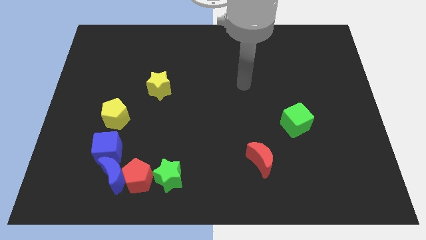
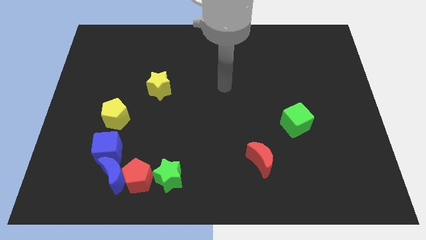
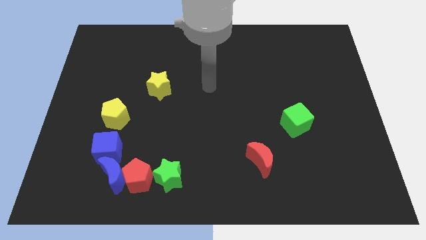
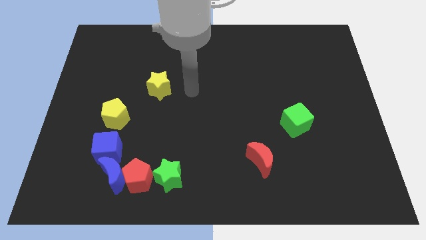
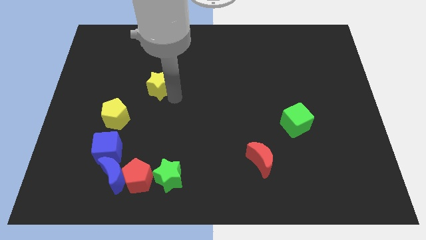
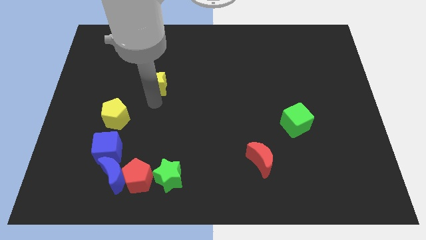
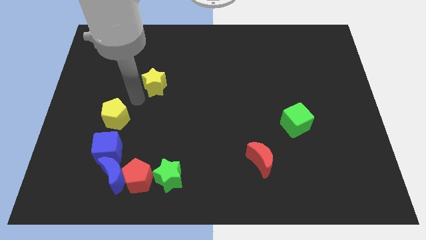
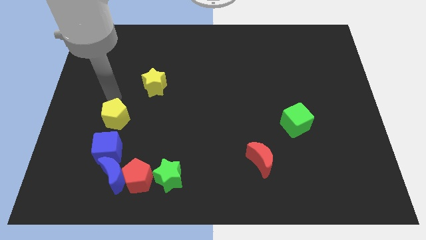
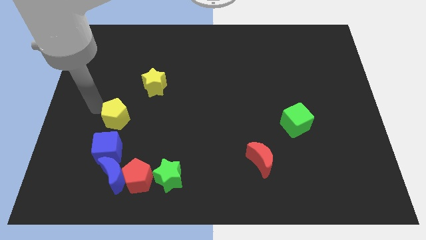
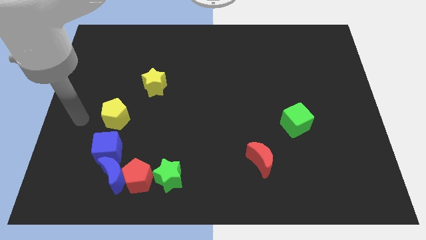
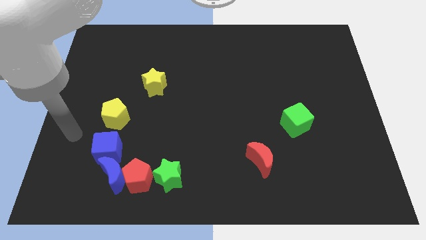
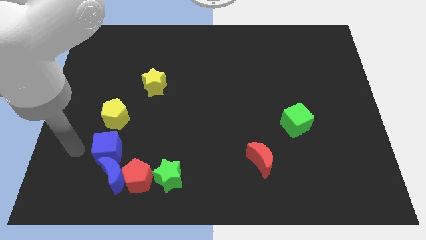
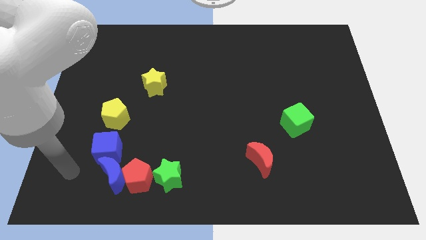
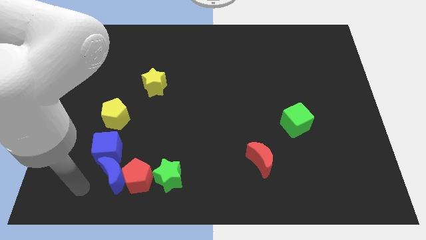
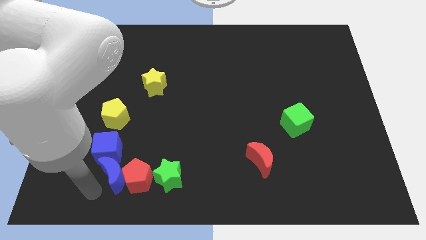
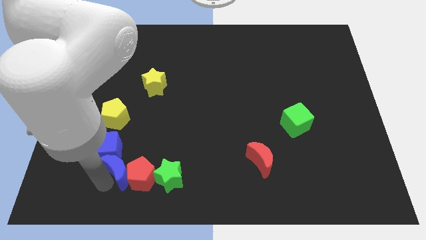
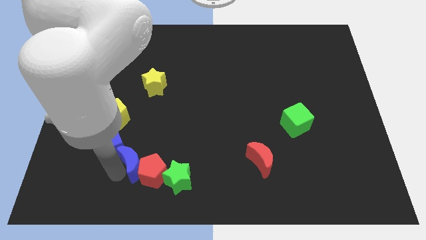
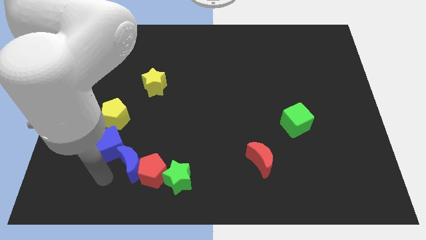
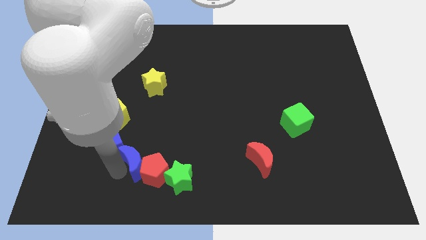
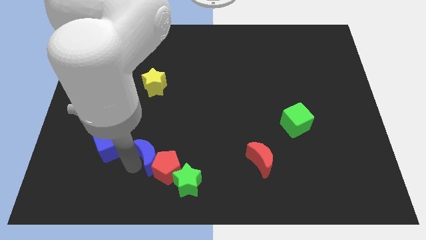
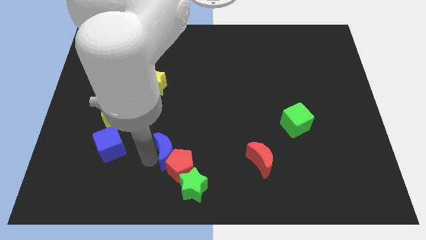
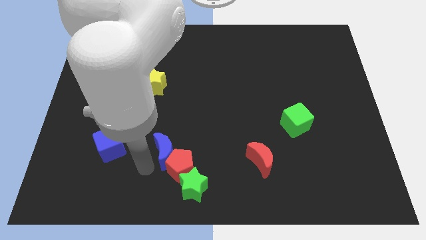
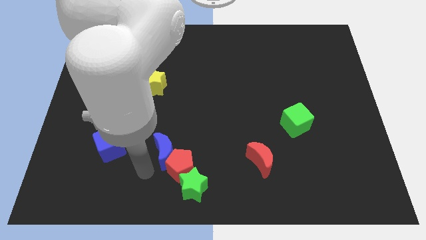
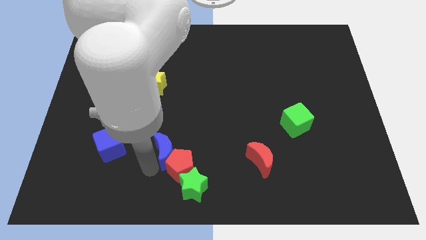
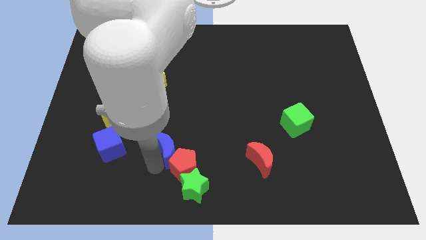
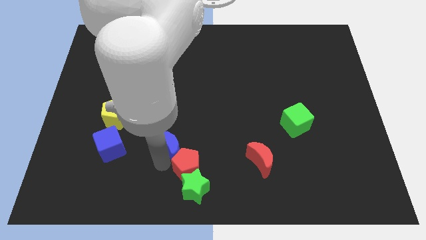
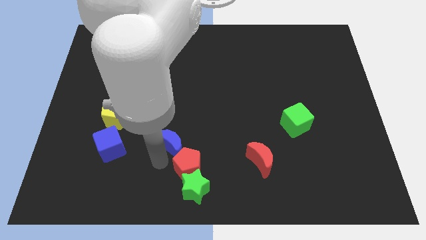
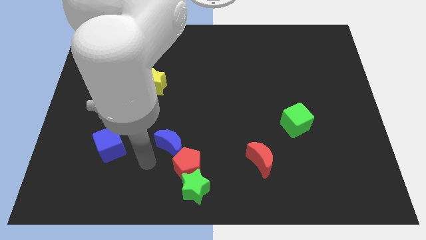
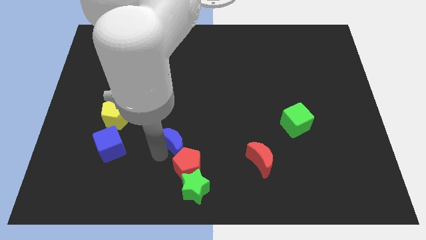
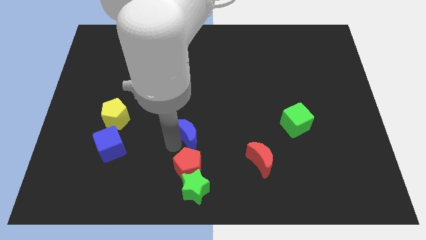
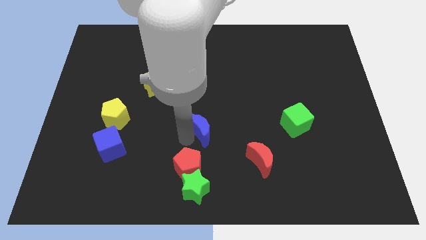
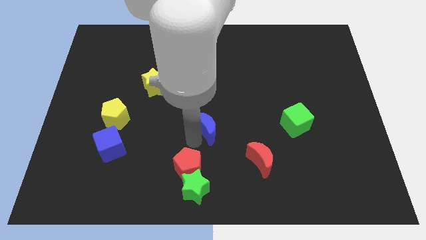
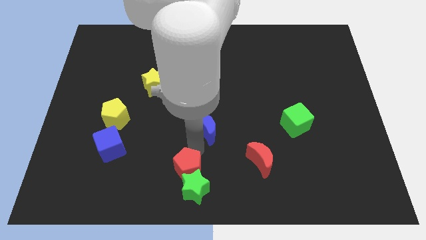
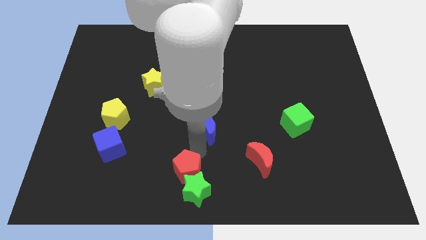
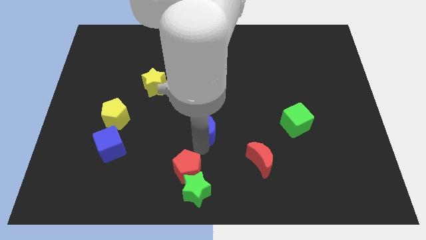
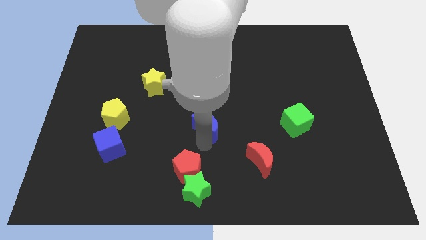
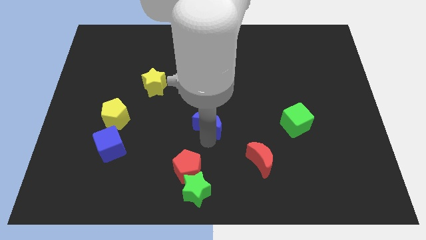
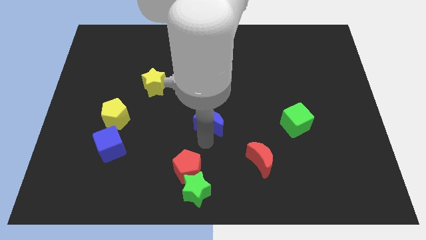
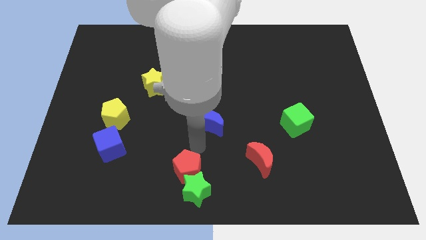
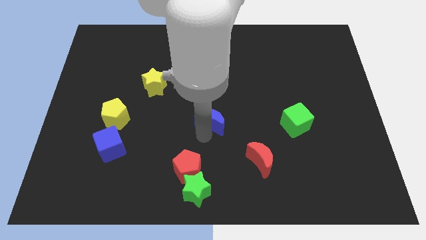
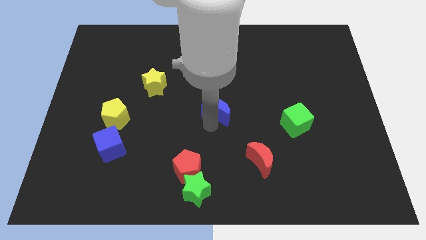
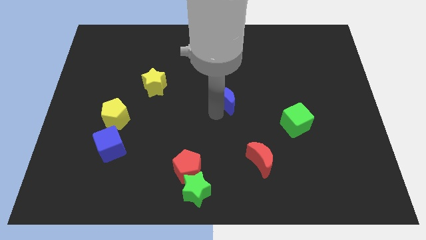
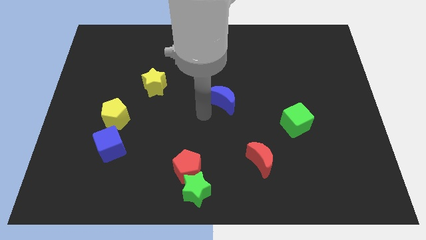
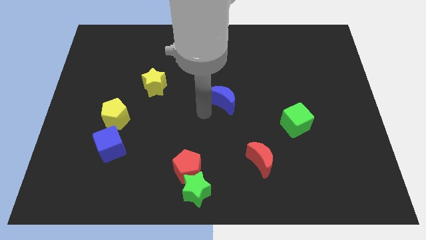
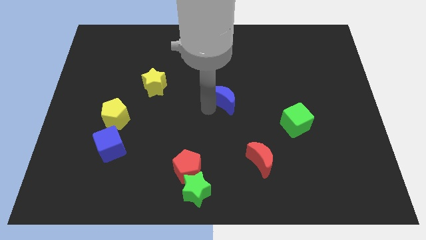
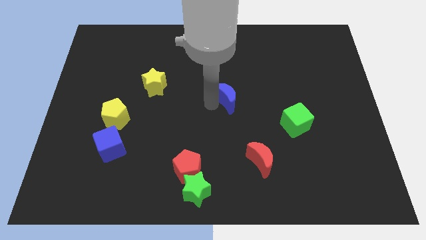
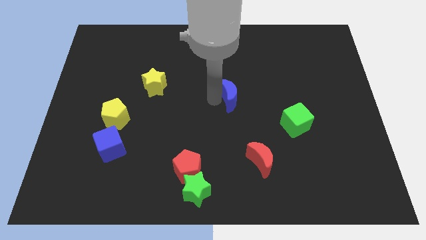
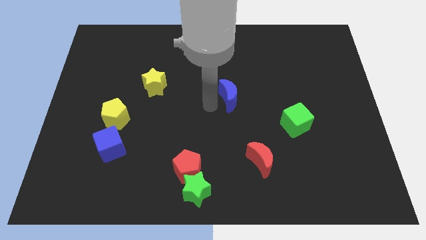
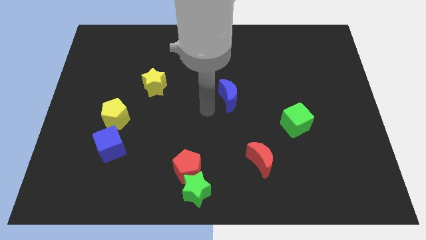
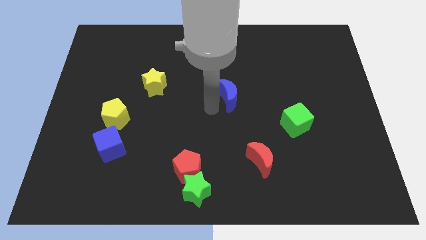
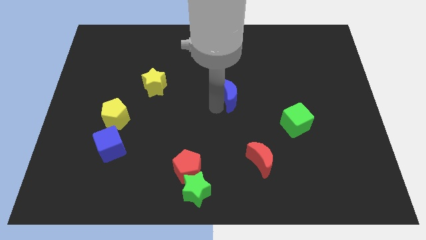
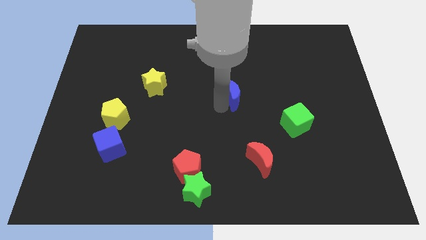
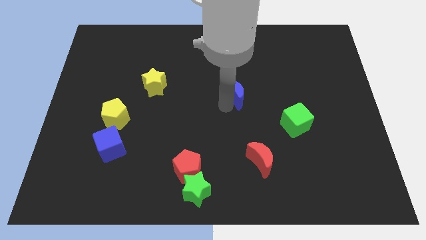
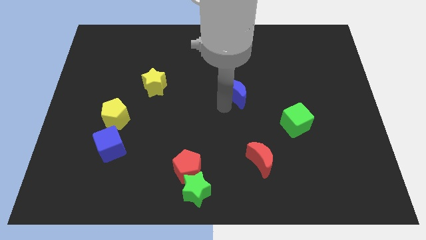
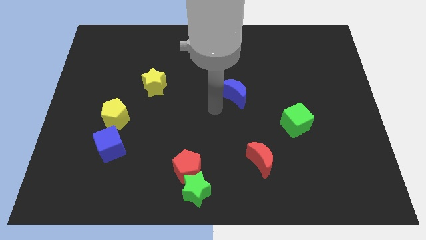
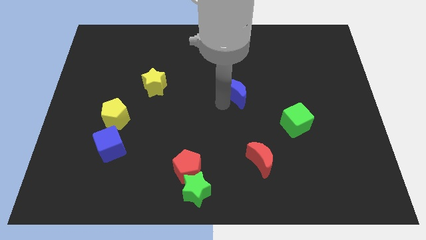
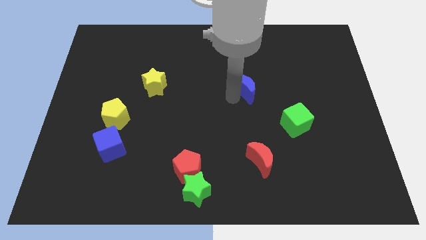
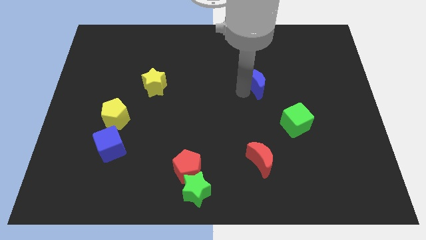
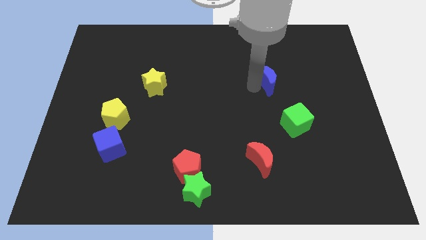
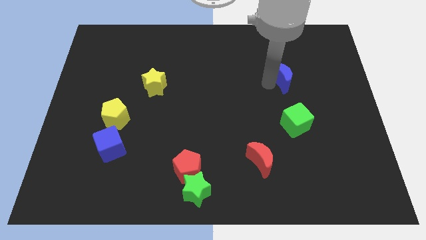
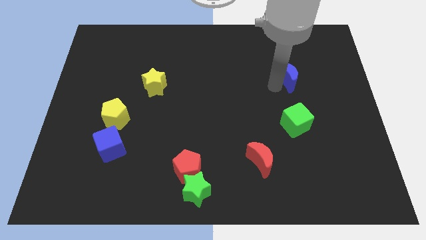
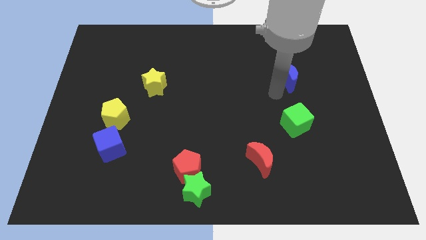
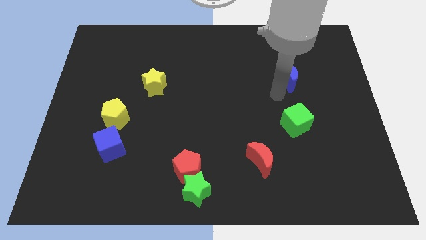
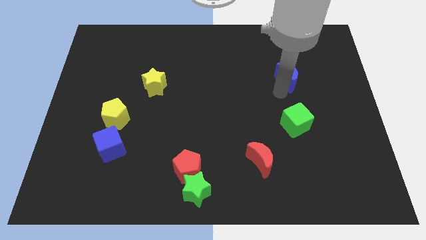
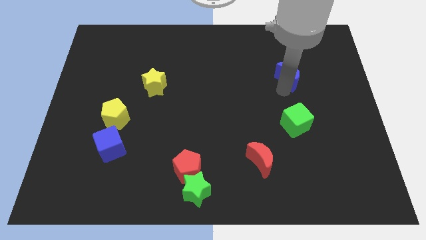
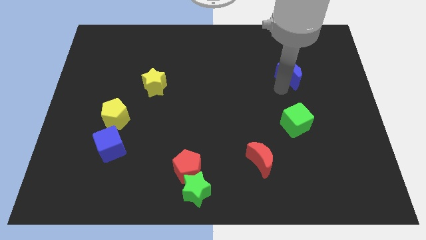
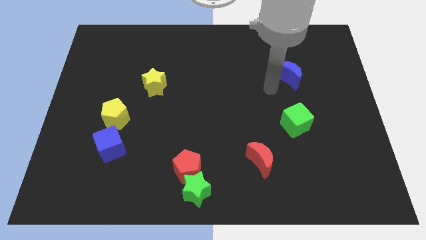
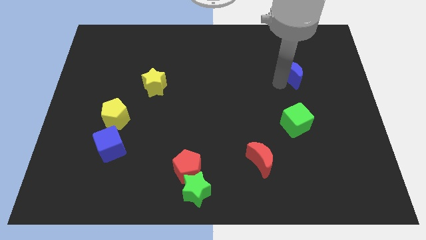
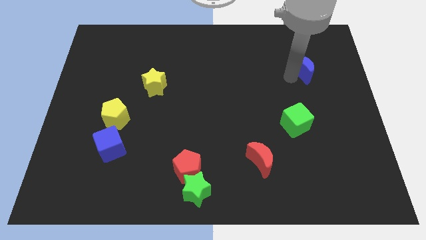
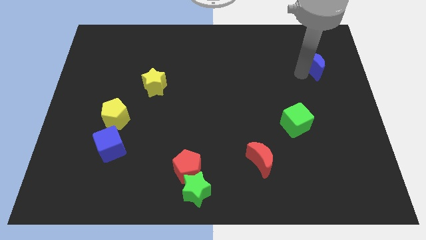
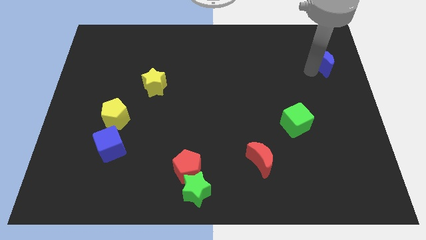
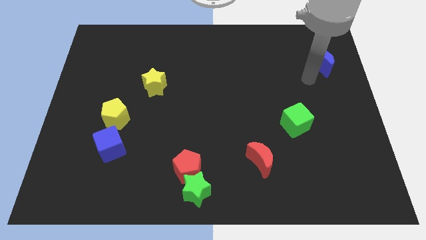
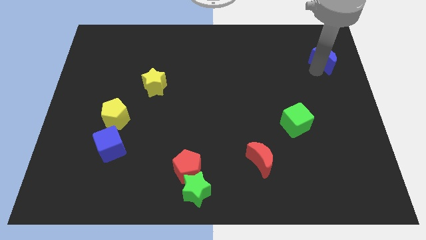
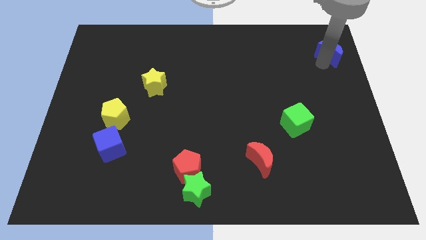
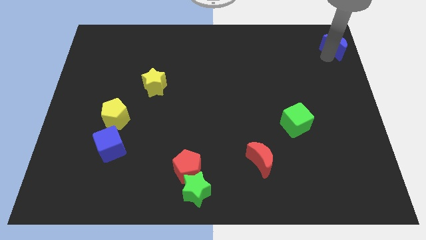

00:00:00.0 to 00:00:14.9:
move the blue moon to the top right of the board

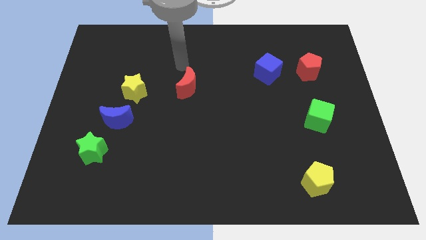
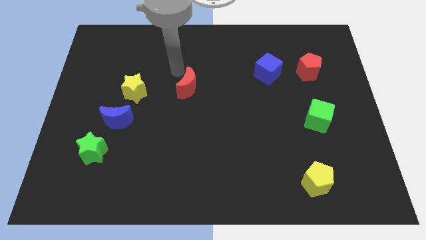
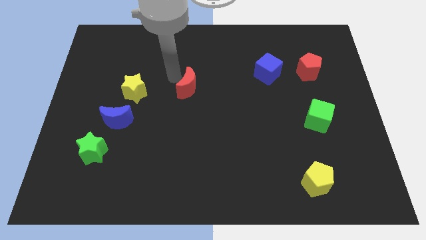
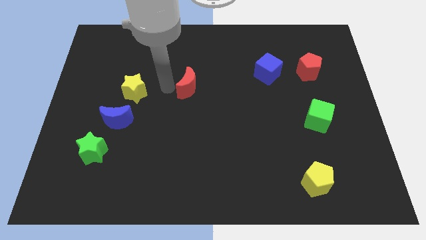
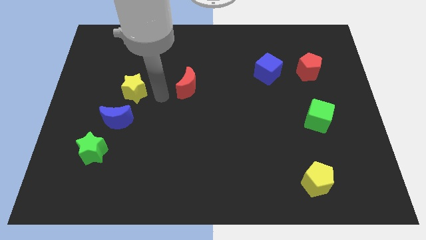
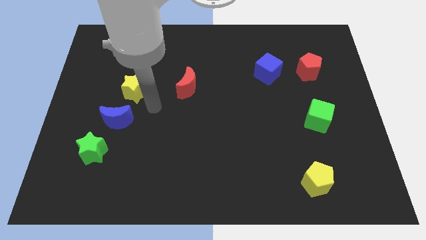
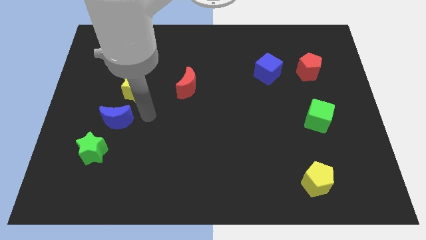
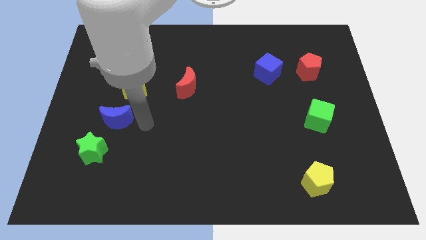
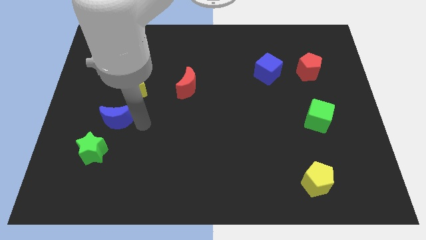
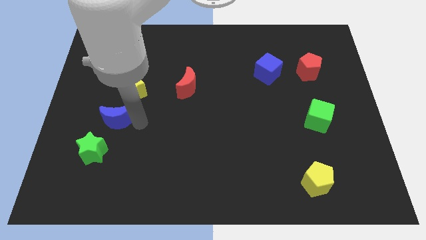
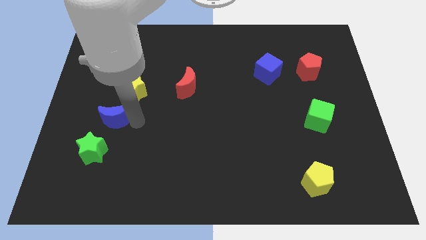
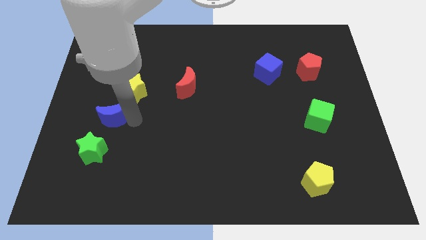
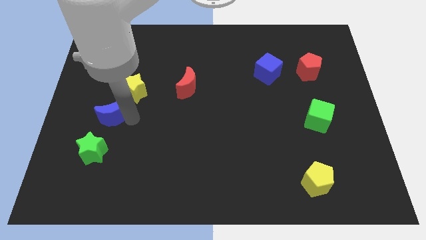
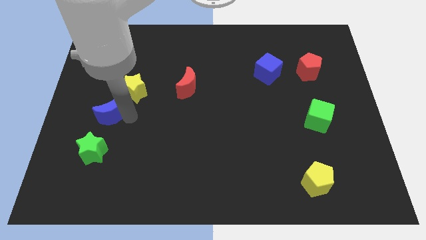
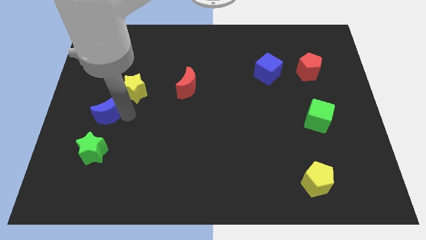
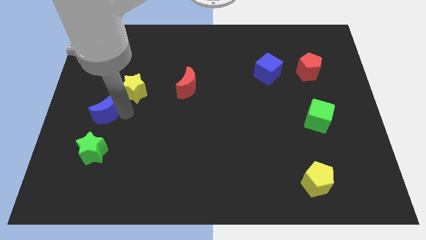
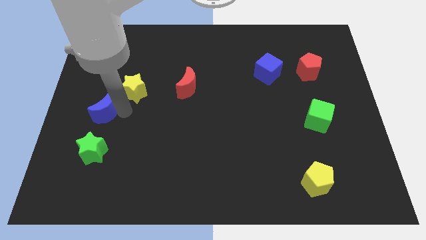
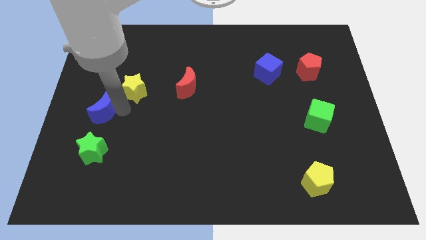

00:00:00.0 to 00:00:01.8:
move the blue moon to the left side
